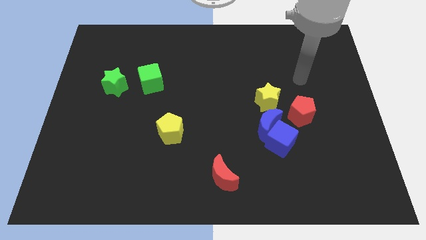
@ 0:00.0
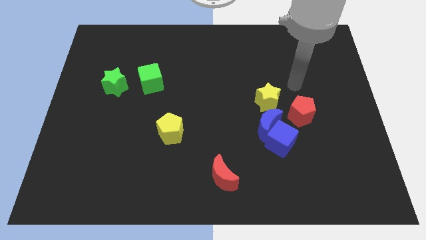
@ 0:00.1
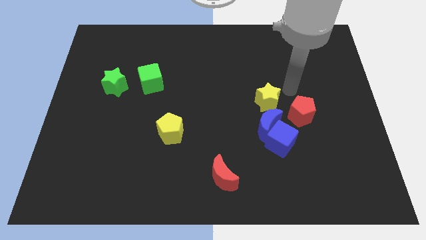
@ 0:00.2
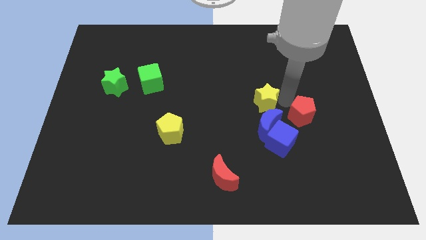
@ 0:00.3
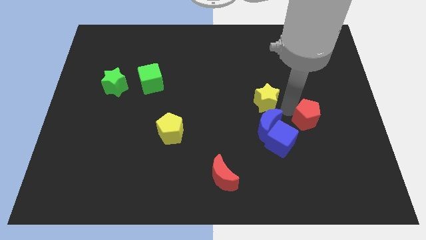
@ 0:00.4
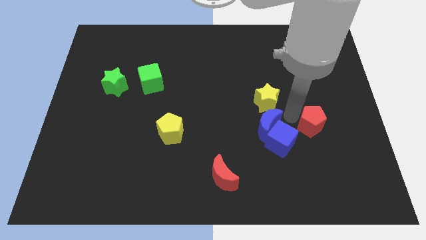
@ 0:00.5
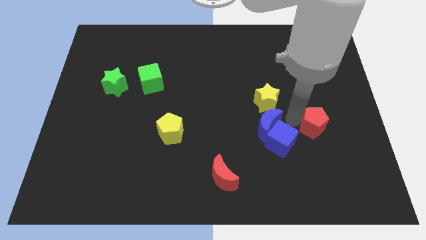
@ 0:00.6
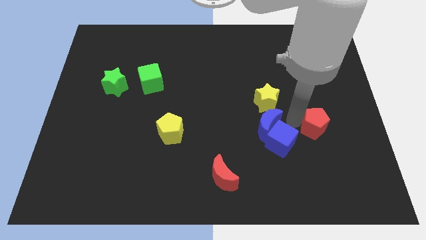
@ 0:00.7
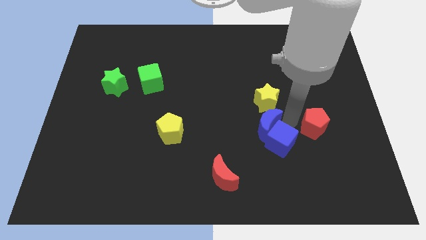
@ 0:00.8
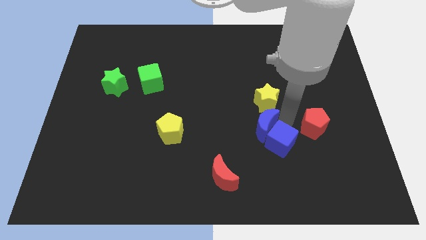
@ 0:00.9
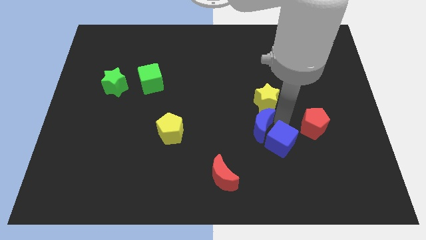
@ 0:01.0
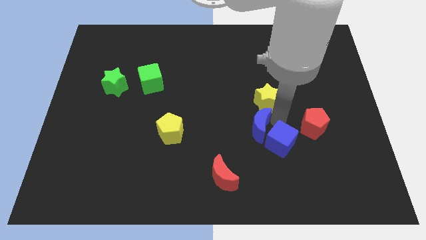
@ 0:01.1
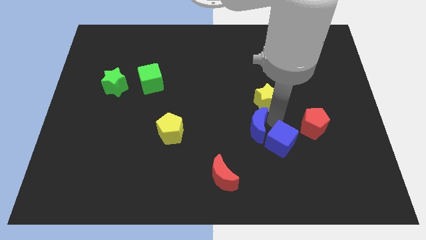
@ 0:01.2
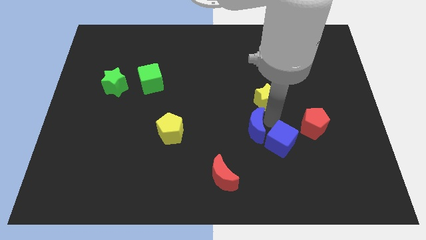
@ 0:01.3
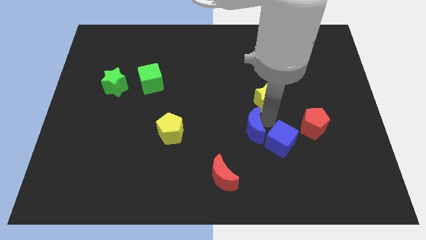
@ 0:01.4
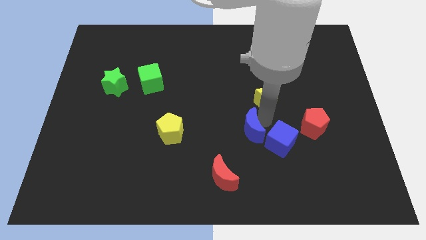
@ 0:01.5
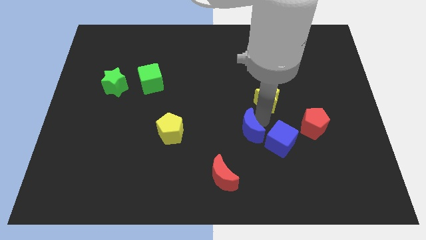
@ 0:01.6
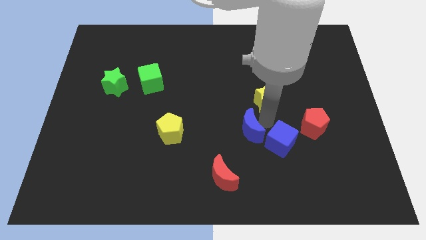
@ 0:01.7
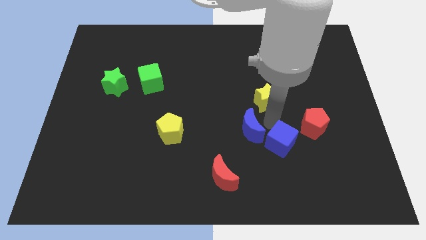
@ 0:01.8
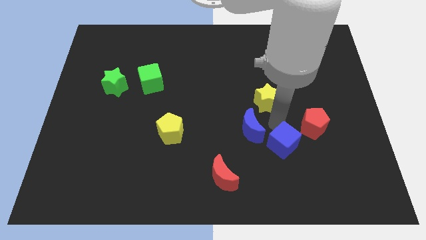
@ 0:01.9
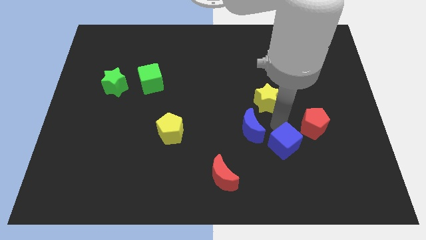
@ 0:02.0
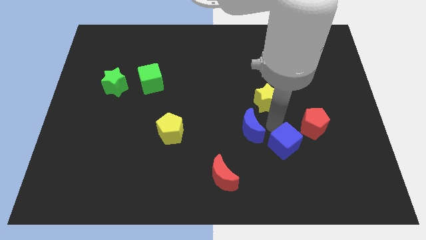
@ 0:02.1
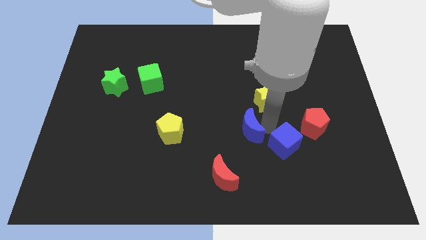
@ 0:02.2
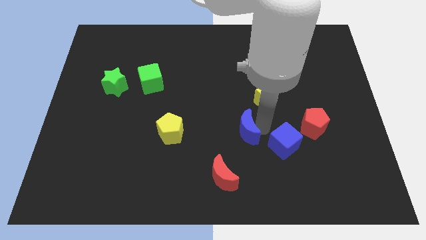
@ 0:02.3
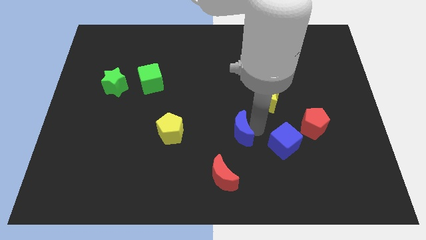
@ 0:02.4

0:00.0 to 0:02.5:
move the blue moon away from the group of blocks

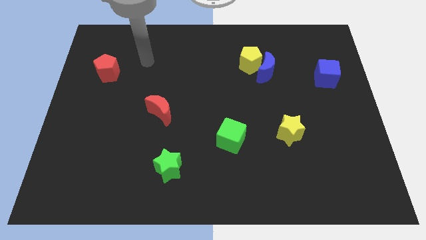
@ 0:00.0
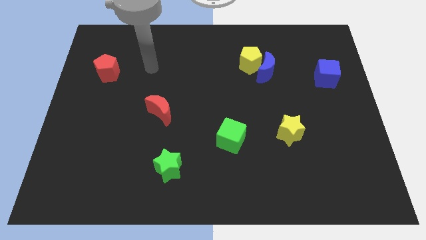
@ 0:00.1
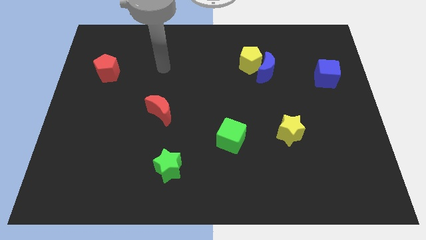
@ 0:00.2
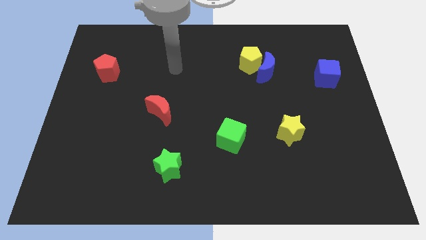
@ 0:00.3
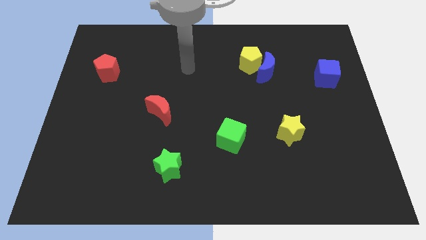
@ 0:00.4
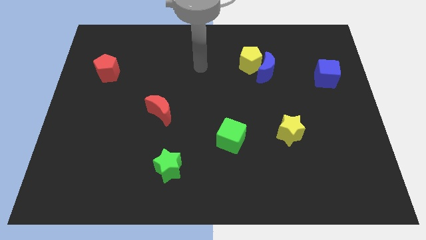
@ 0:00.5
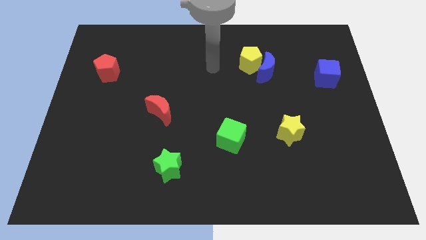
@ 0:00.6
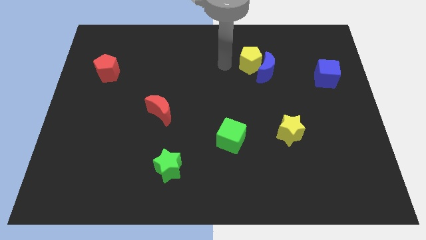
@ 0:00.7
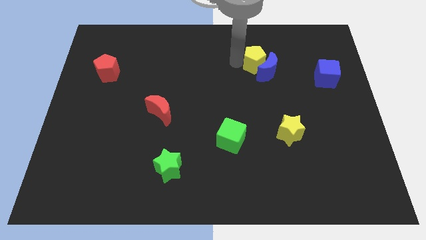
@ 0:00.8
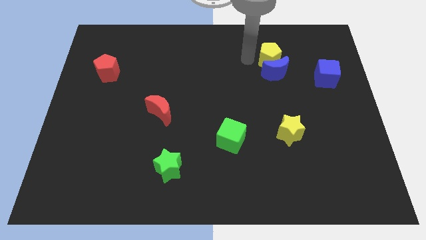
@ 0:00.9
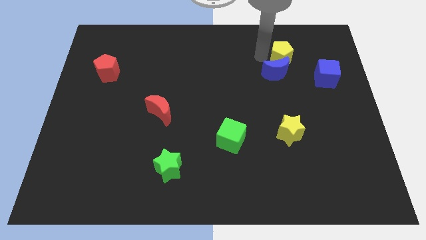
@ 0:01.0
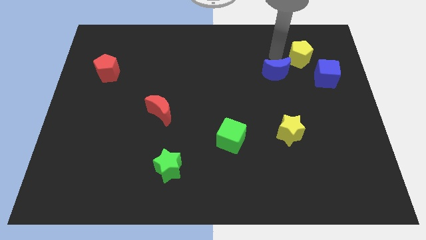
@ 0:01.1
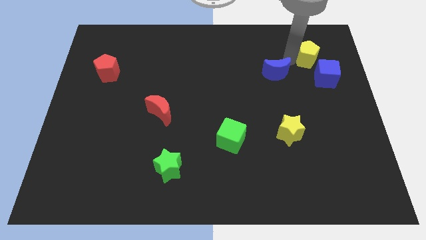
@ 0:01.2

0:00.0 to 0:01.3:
separate the blue moon from the yellow pentagon

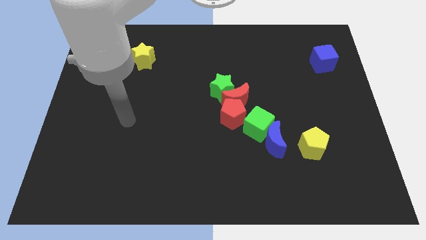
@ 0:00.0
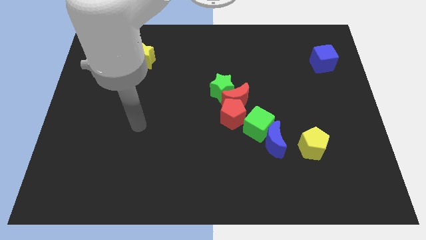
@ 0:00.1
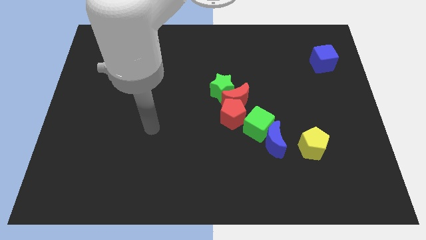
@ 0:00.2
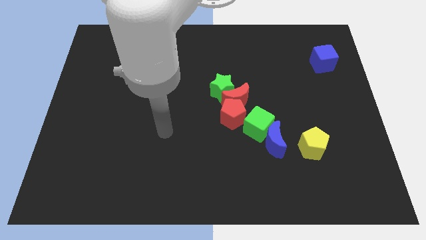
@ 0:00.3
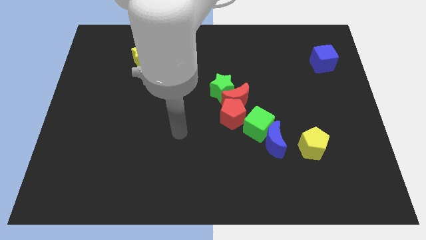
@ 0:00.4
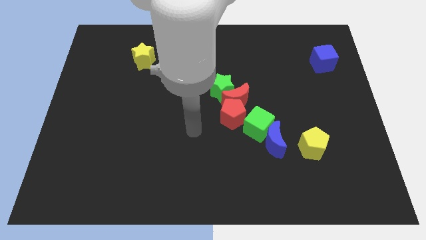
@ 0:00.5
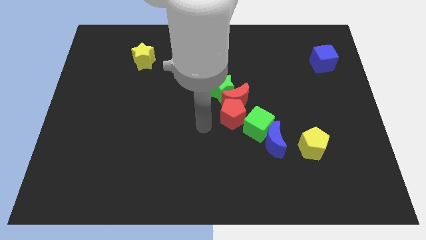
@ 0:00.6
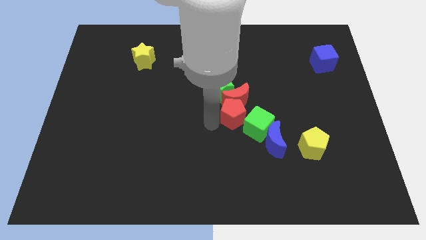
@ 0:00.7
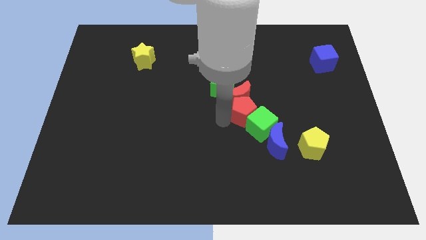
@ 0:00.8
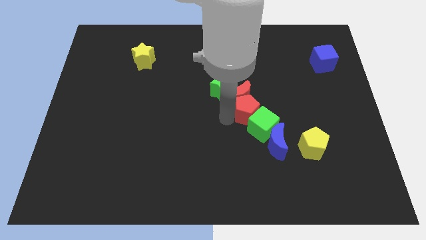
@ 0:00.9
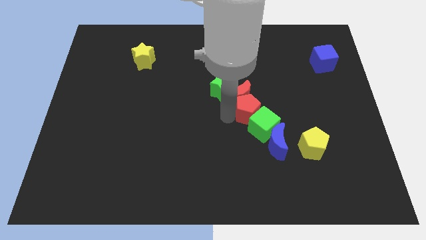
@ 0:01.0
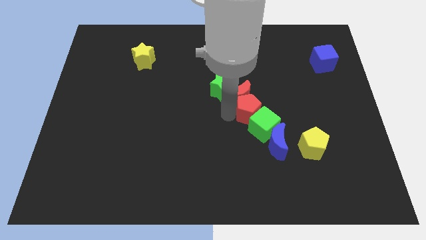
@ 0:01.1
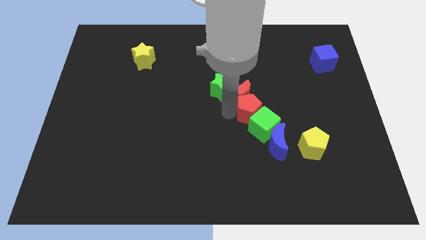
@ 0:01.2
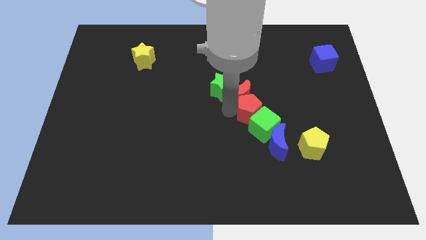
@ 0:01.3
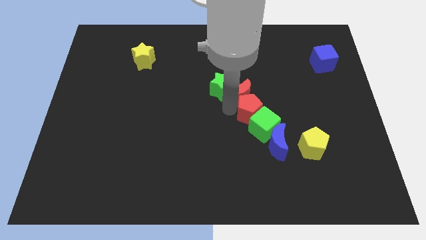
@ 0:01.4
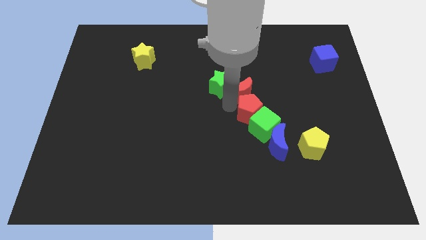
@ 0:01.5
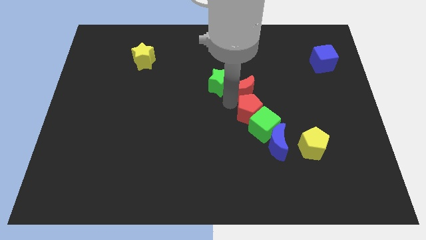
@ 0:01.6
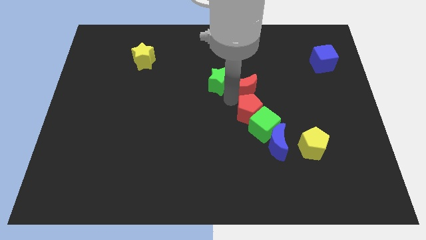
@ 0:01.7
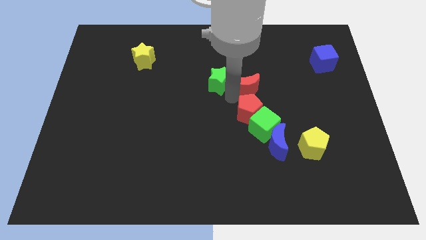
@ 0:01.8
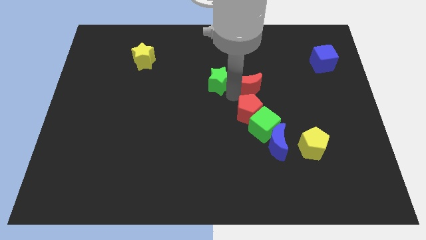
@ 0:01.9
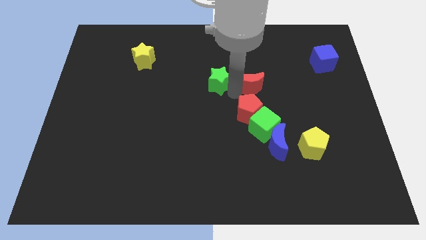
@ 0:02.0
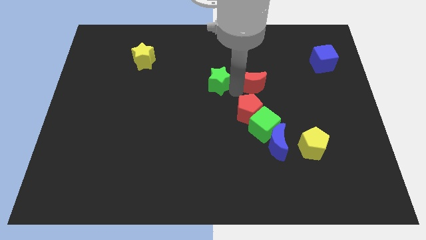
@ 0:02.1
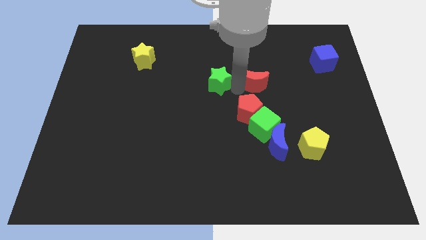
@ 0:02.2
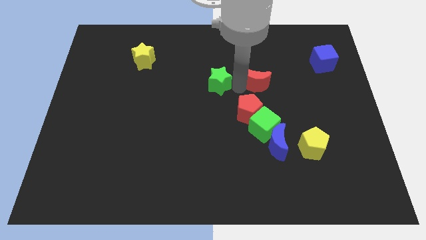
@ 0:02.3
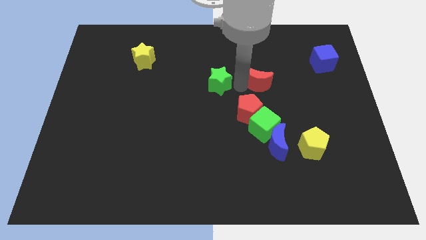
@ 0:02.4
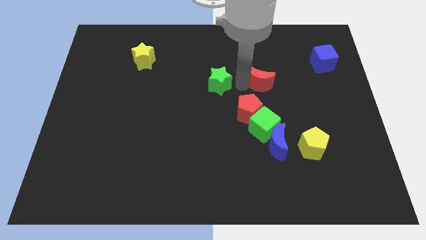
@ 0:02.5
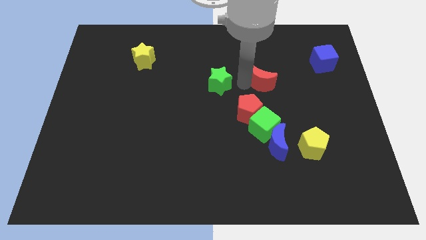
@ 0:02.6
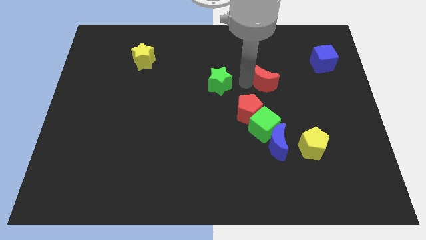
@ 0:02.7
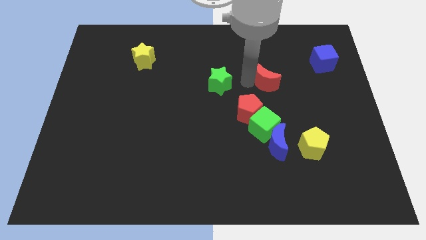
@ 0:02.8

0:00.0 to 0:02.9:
separate the red moon from the green star, red pentagon, and green cube

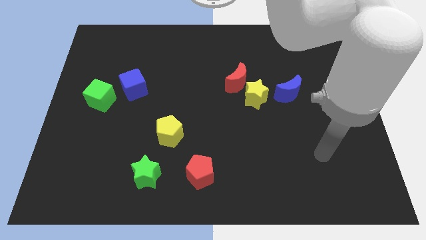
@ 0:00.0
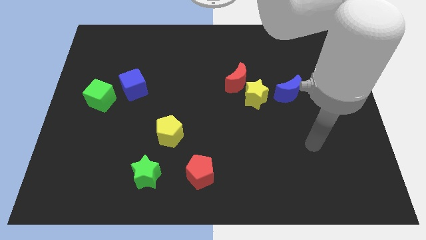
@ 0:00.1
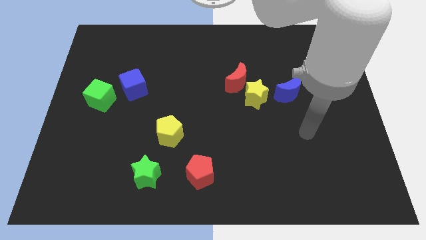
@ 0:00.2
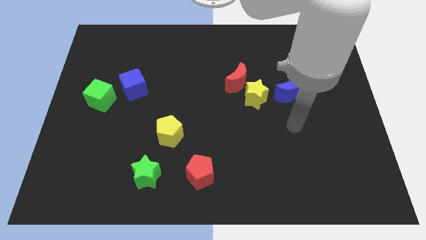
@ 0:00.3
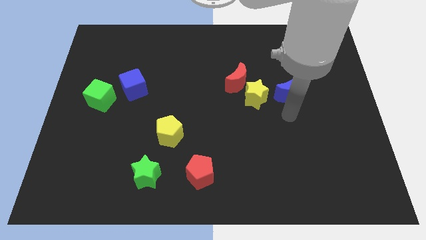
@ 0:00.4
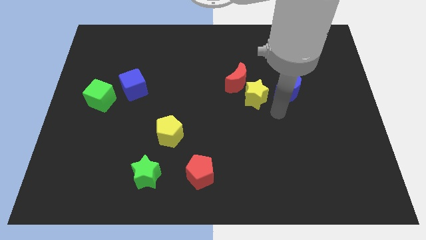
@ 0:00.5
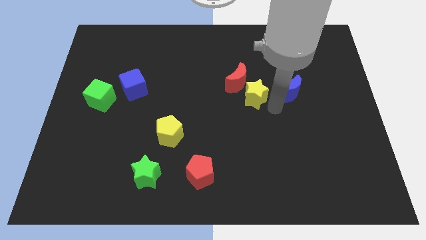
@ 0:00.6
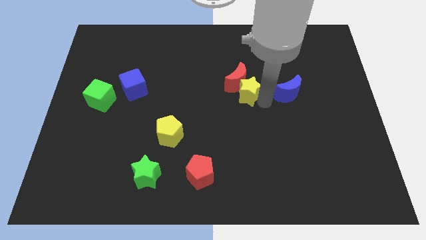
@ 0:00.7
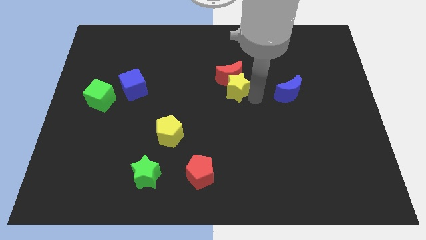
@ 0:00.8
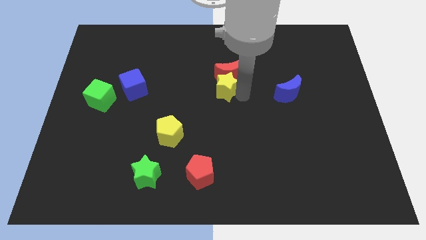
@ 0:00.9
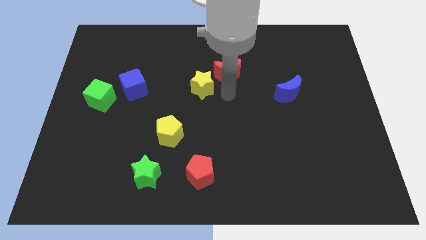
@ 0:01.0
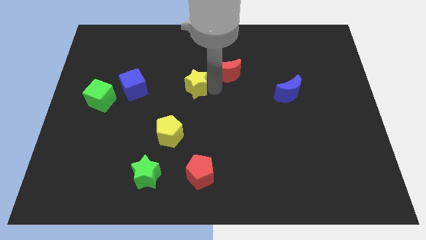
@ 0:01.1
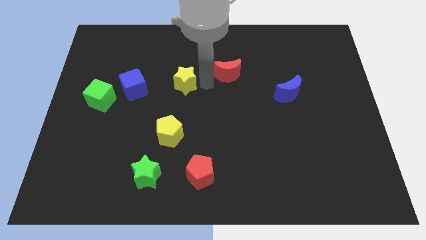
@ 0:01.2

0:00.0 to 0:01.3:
move the red moon away from the yellow star

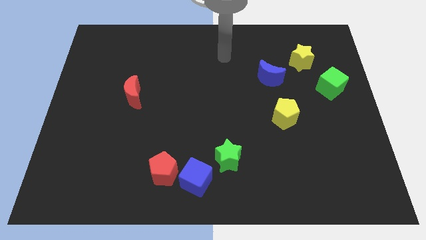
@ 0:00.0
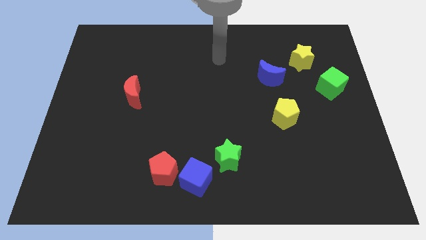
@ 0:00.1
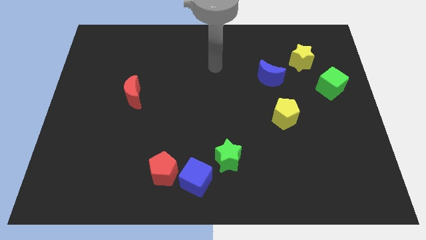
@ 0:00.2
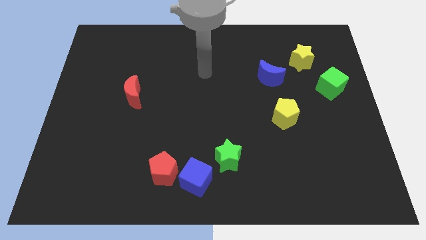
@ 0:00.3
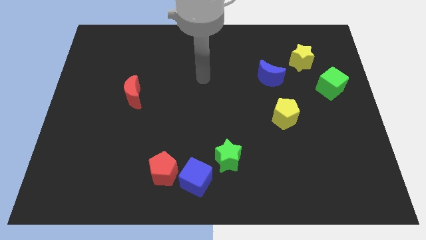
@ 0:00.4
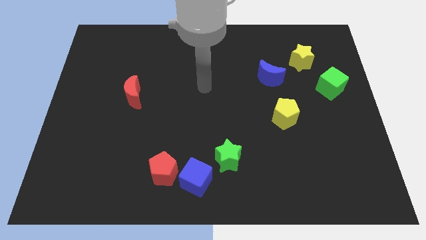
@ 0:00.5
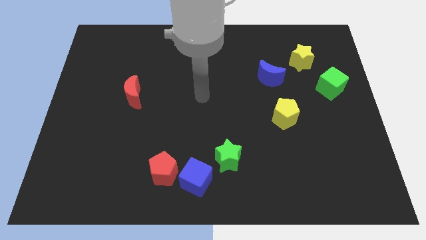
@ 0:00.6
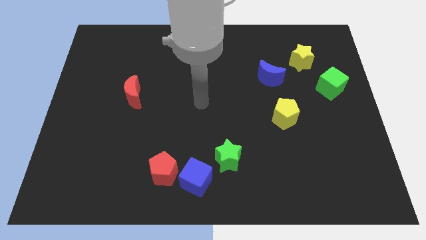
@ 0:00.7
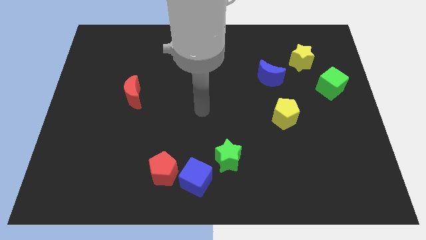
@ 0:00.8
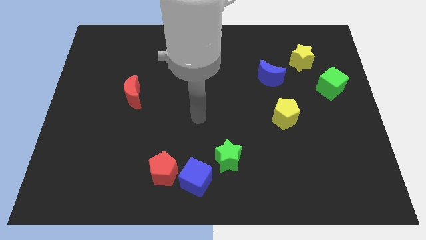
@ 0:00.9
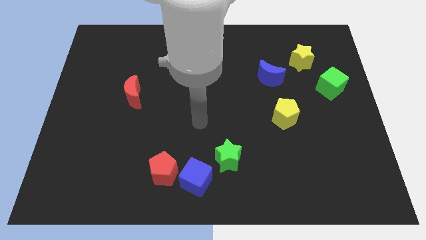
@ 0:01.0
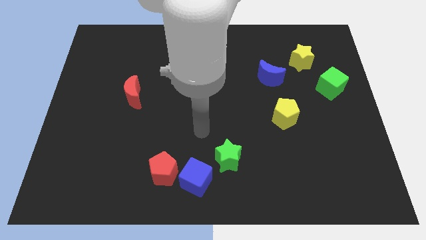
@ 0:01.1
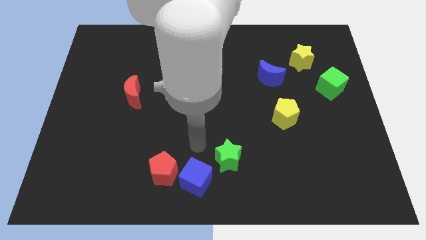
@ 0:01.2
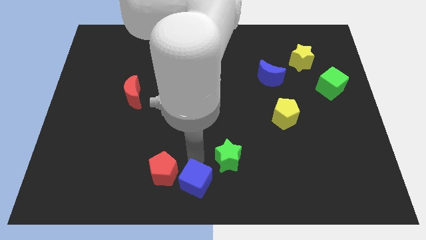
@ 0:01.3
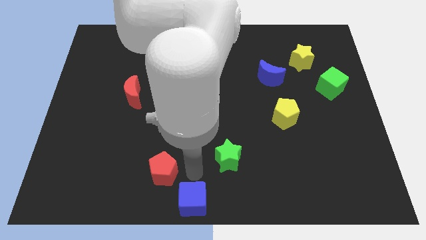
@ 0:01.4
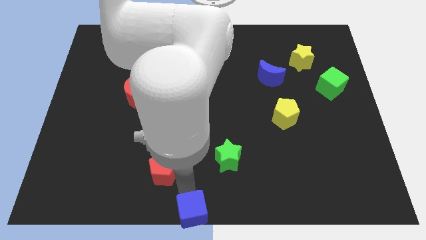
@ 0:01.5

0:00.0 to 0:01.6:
separate the red pentagon from the blue cube
